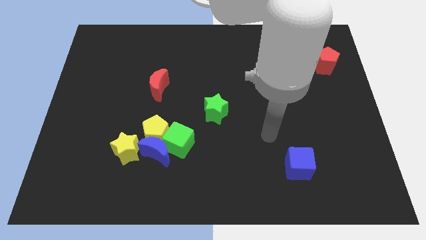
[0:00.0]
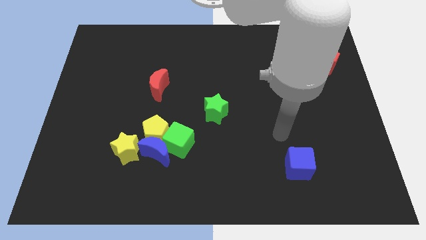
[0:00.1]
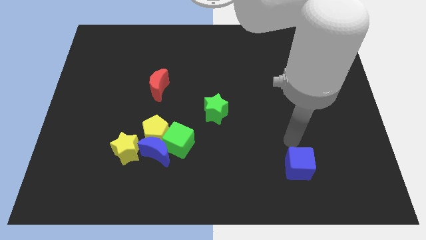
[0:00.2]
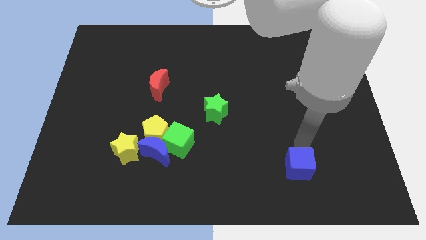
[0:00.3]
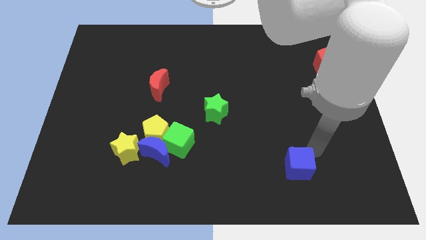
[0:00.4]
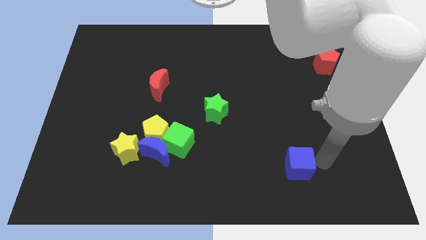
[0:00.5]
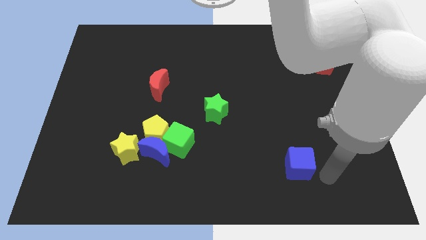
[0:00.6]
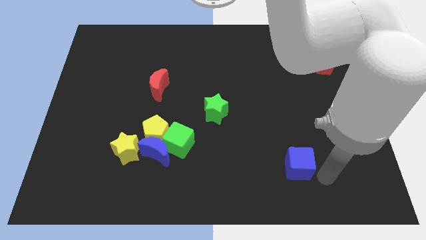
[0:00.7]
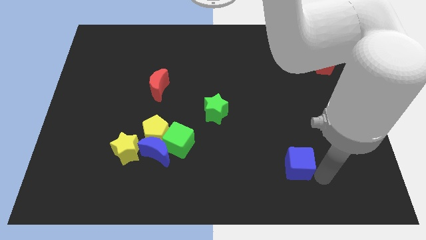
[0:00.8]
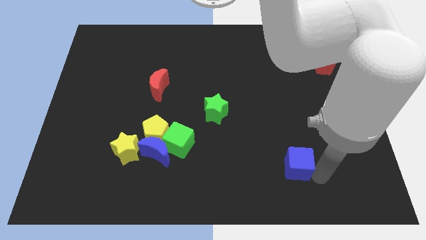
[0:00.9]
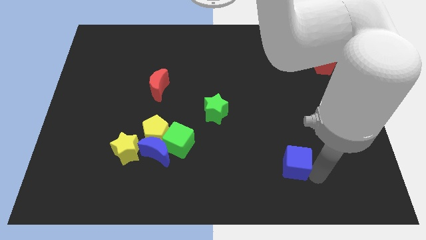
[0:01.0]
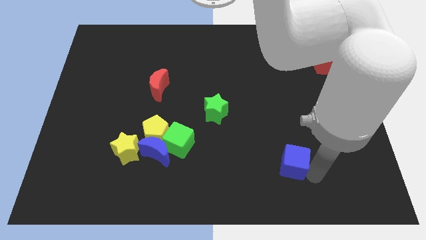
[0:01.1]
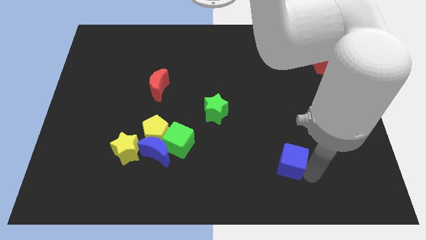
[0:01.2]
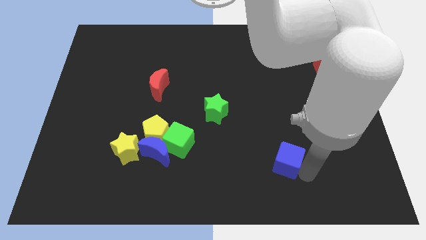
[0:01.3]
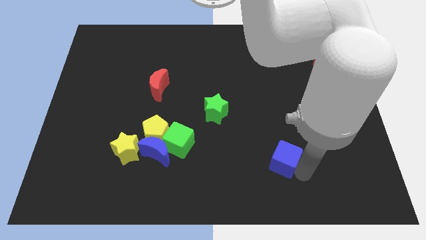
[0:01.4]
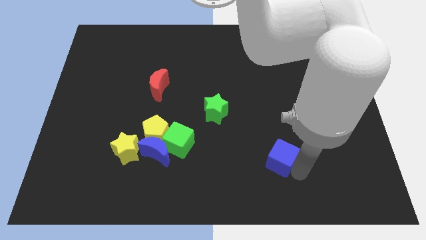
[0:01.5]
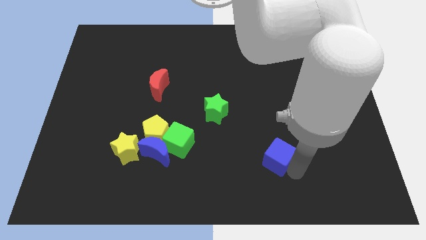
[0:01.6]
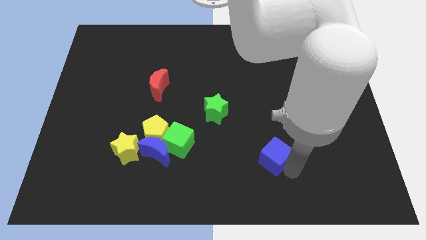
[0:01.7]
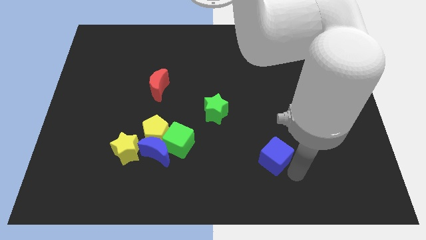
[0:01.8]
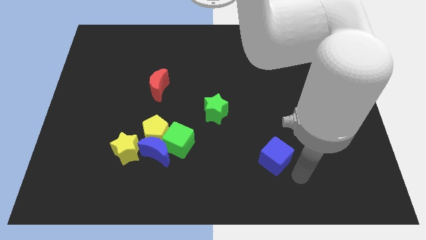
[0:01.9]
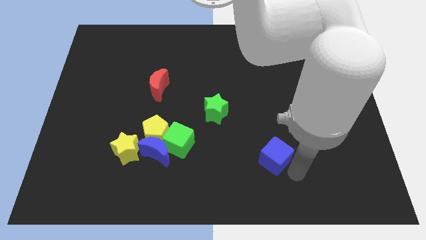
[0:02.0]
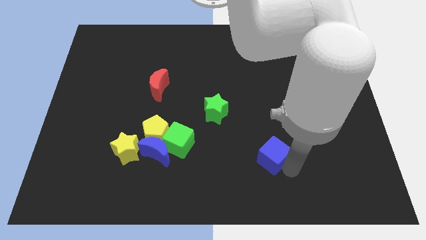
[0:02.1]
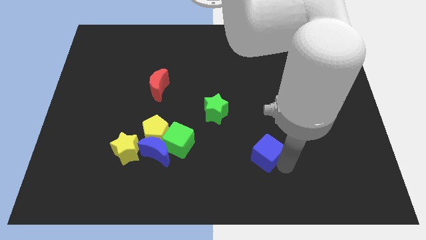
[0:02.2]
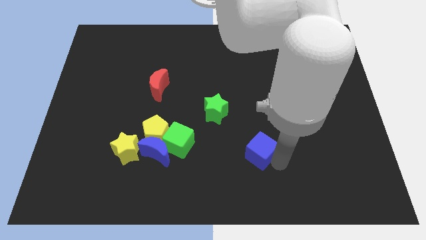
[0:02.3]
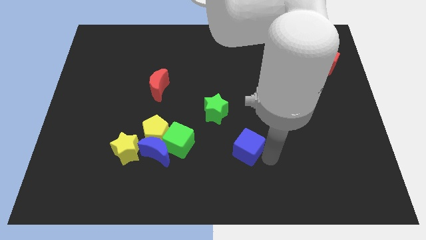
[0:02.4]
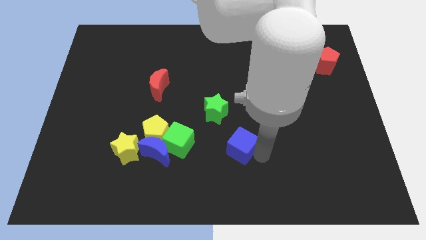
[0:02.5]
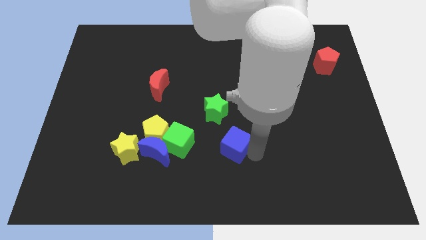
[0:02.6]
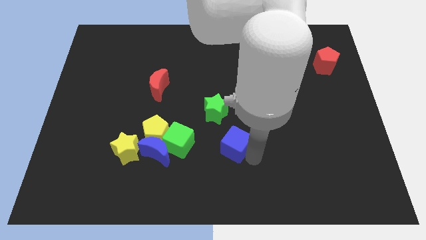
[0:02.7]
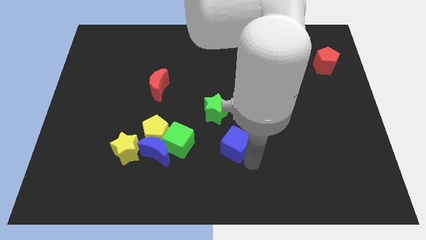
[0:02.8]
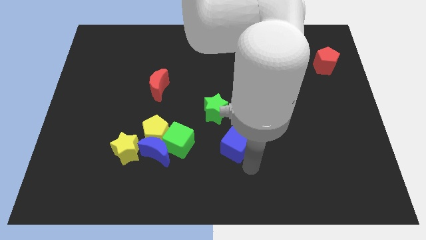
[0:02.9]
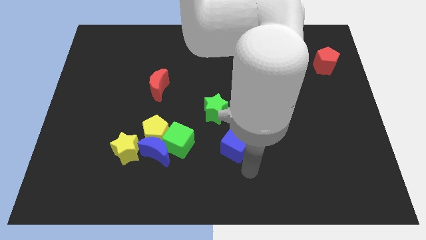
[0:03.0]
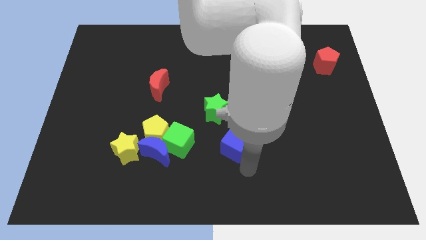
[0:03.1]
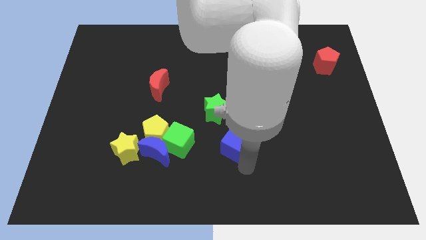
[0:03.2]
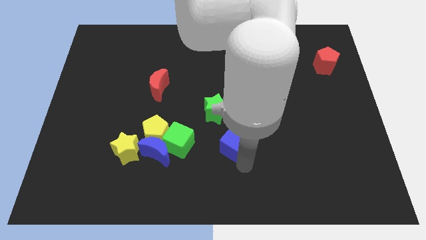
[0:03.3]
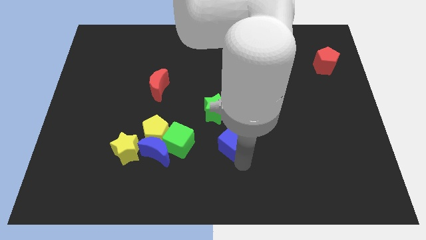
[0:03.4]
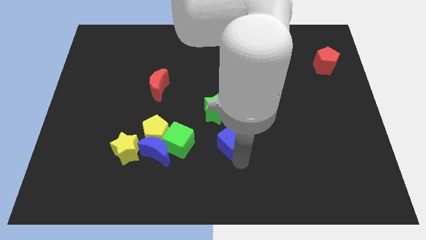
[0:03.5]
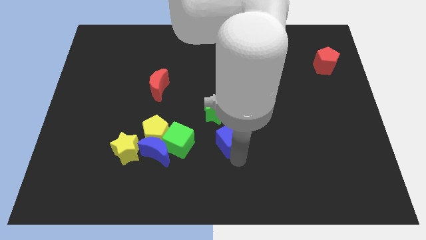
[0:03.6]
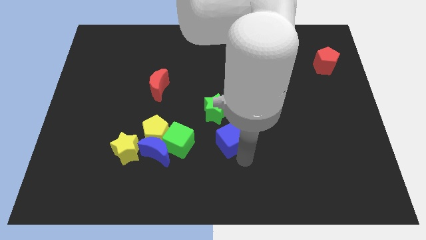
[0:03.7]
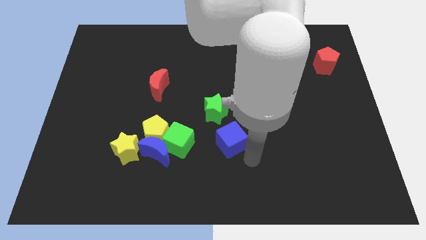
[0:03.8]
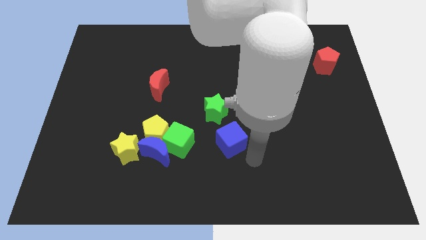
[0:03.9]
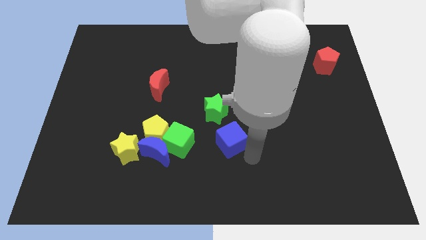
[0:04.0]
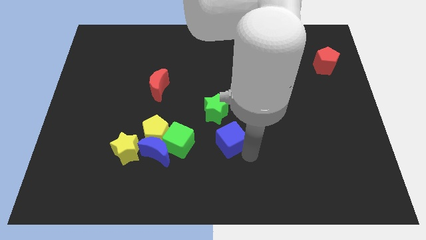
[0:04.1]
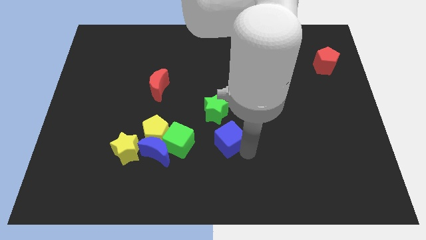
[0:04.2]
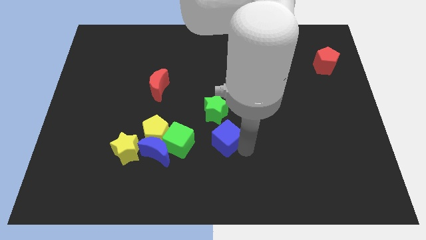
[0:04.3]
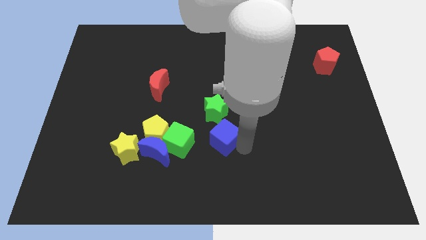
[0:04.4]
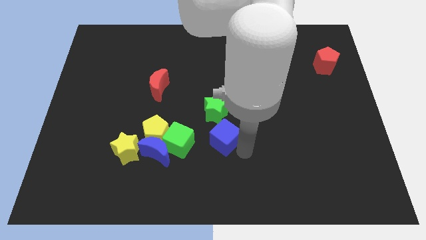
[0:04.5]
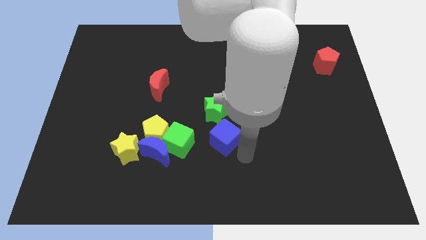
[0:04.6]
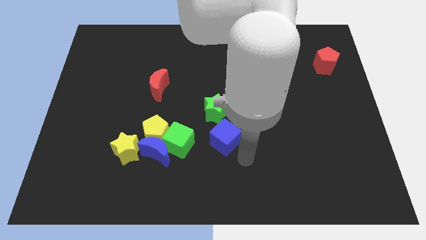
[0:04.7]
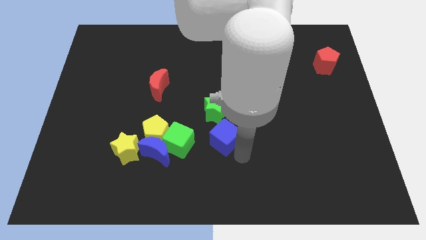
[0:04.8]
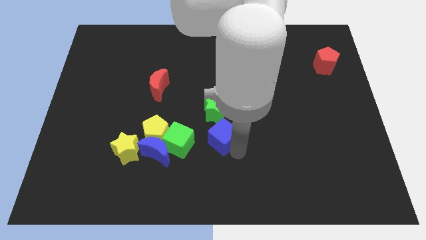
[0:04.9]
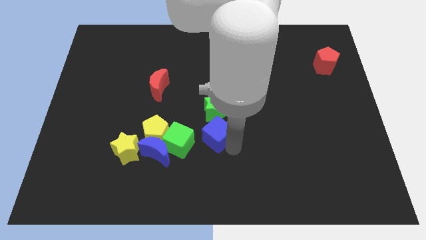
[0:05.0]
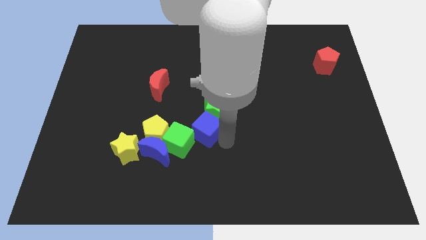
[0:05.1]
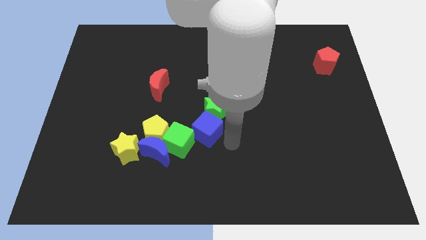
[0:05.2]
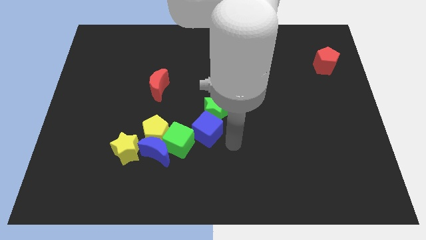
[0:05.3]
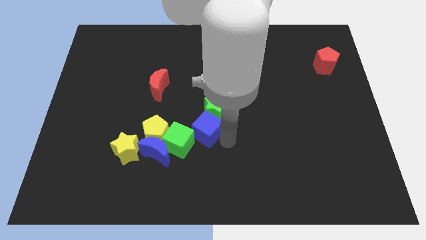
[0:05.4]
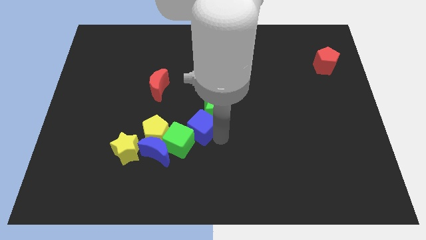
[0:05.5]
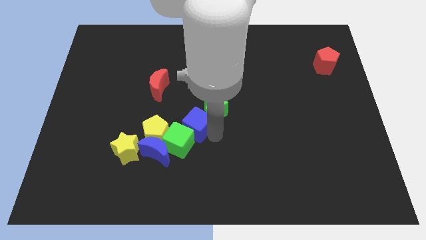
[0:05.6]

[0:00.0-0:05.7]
slide the blue cube to the left side of the green star

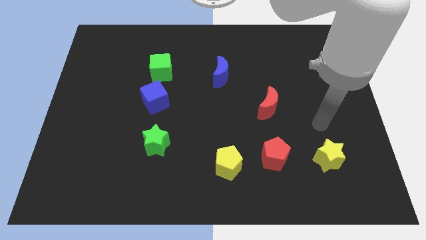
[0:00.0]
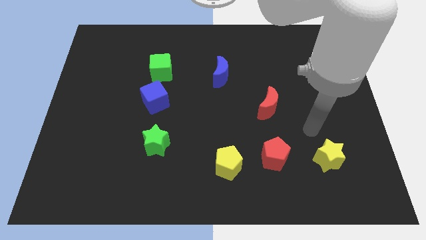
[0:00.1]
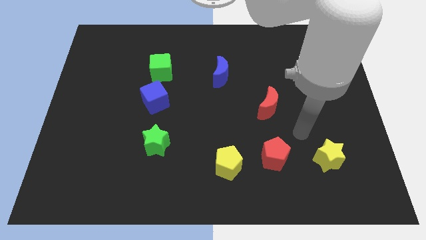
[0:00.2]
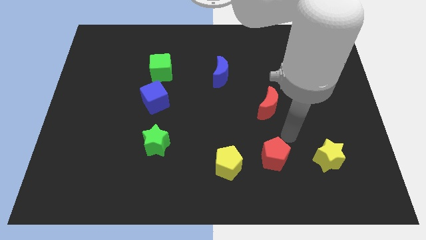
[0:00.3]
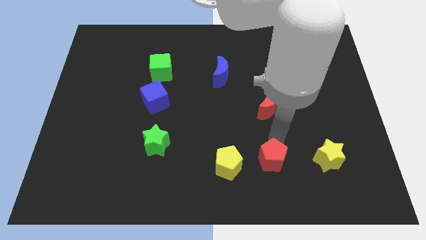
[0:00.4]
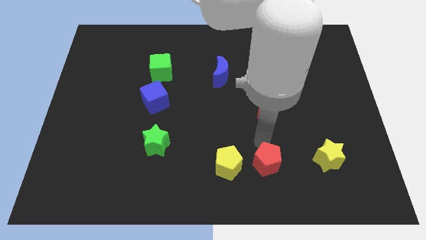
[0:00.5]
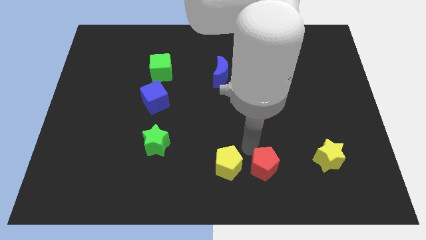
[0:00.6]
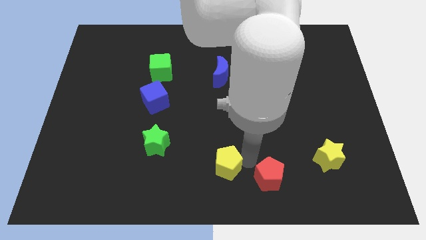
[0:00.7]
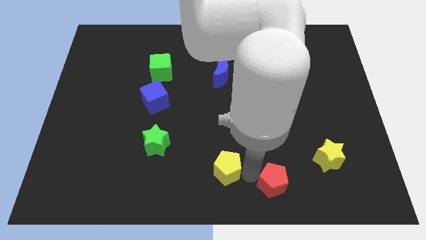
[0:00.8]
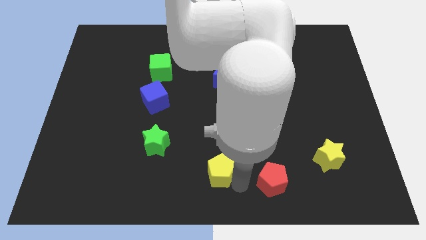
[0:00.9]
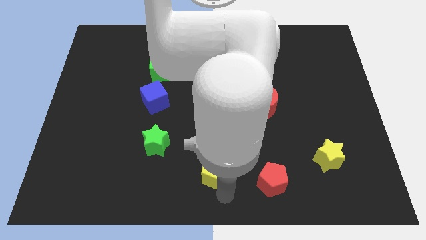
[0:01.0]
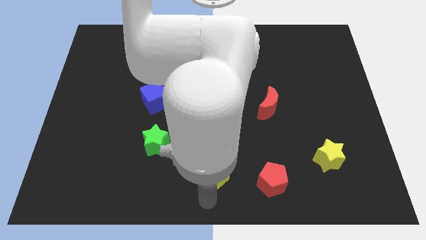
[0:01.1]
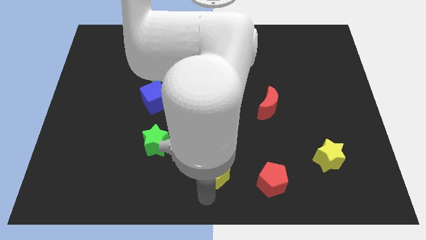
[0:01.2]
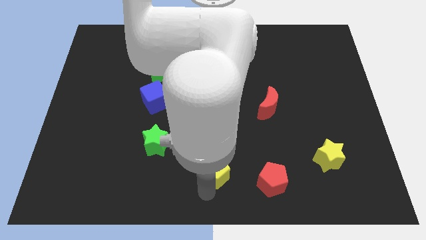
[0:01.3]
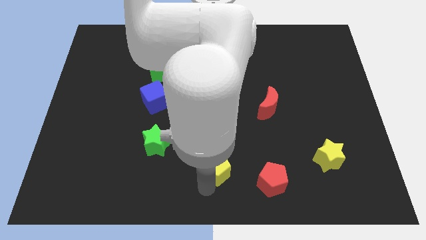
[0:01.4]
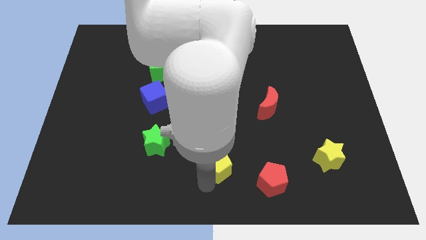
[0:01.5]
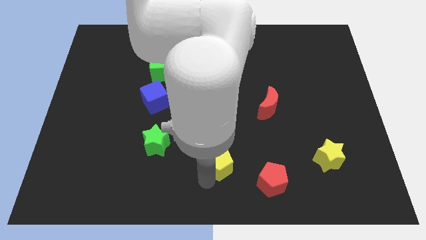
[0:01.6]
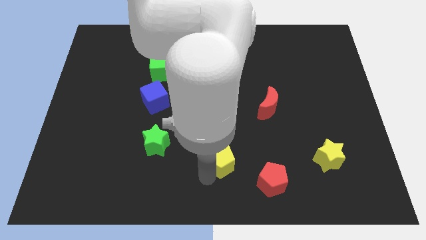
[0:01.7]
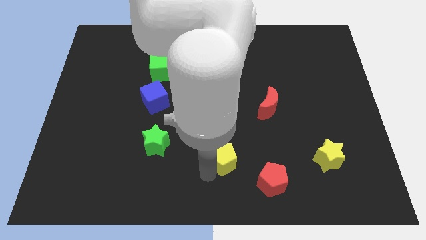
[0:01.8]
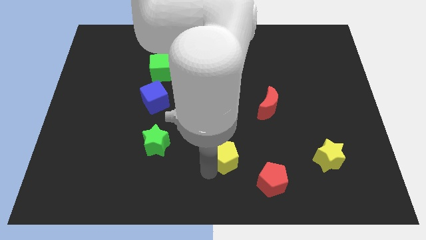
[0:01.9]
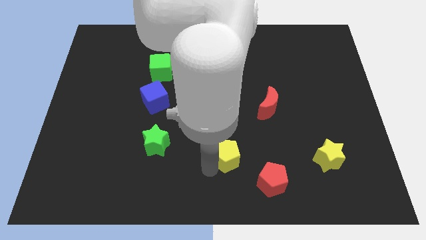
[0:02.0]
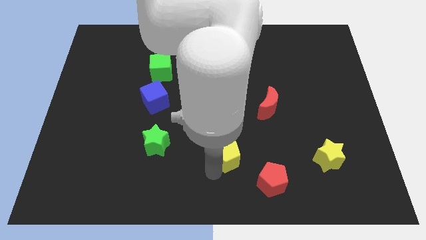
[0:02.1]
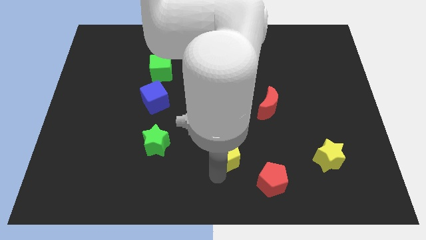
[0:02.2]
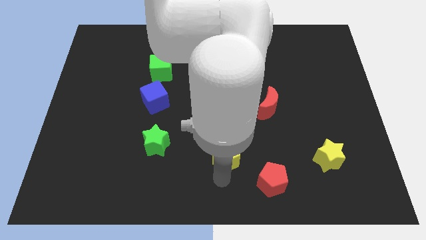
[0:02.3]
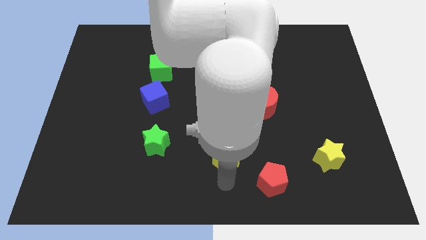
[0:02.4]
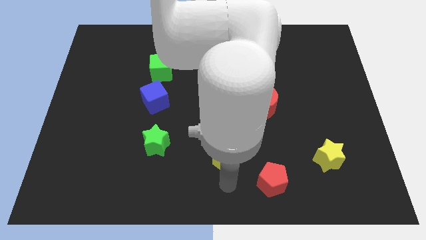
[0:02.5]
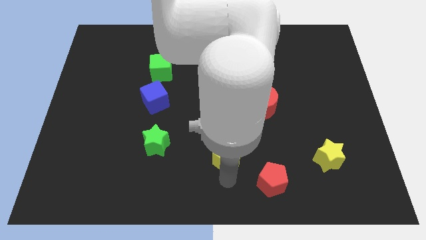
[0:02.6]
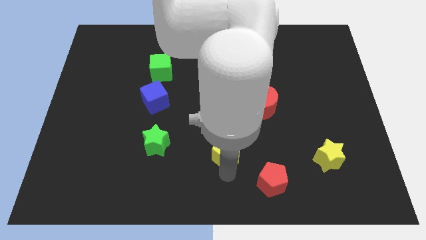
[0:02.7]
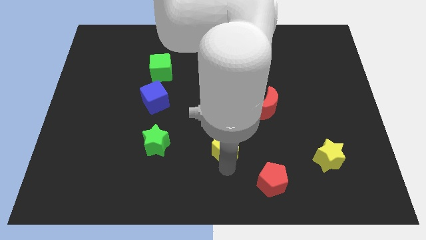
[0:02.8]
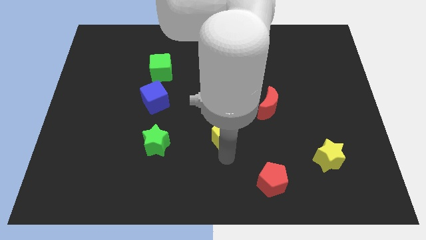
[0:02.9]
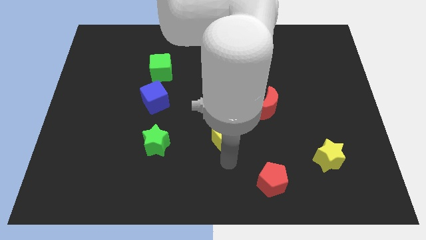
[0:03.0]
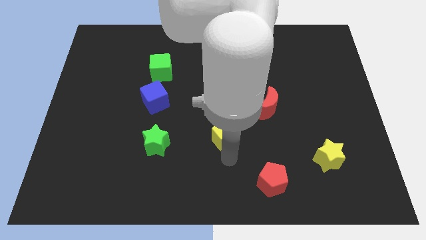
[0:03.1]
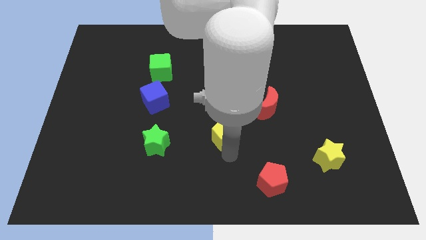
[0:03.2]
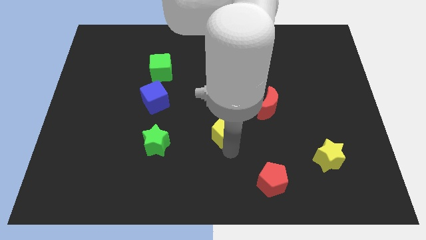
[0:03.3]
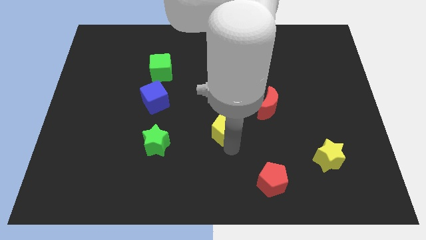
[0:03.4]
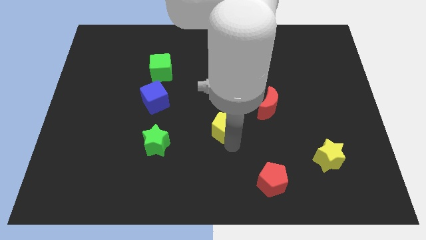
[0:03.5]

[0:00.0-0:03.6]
push the yellow pentagon below the blue moon
